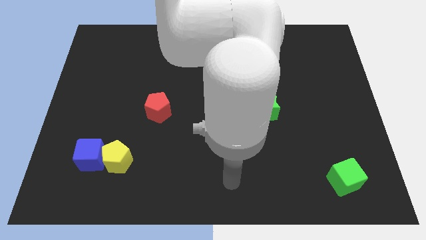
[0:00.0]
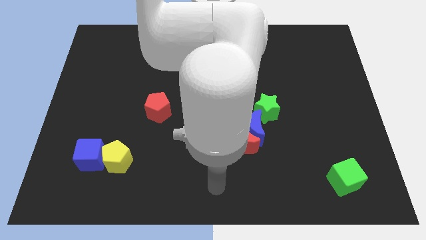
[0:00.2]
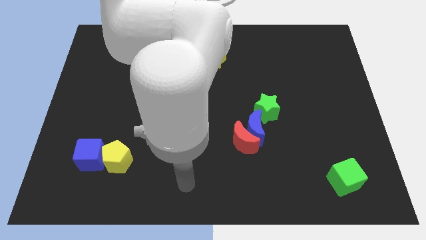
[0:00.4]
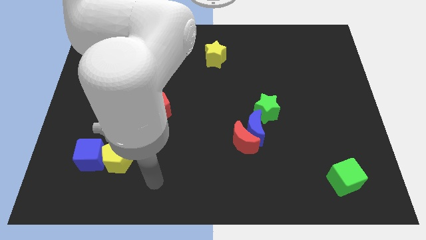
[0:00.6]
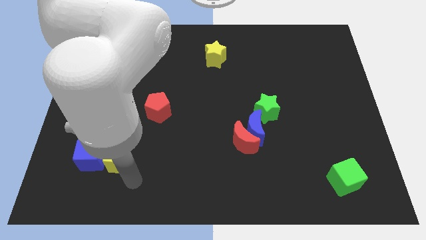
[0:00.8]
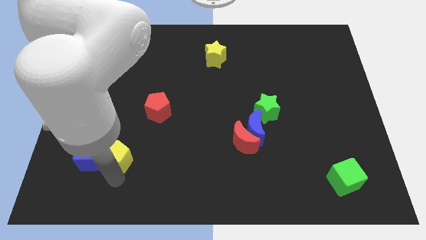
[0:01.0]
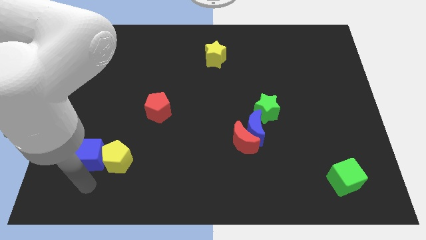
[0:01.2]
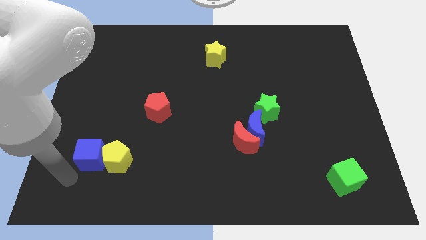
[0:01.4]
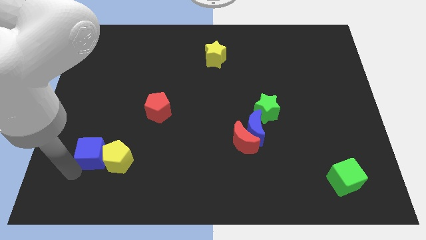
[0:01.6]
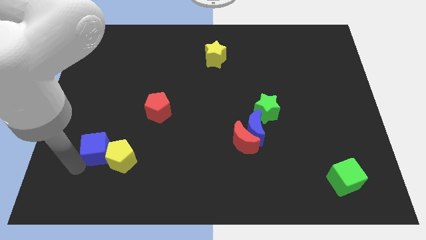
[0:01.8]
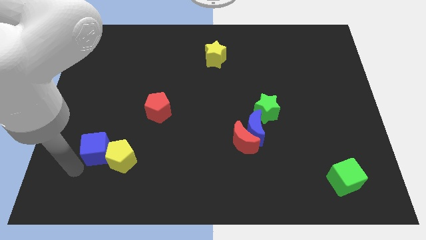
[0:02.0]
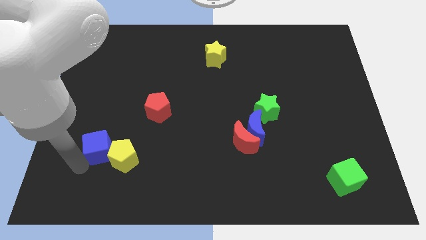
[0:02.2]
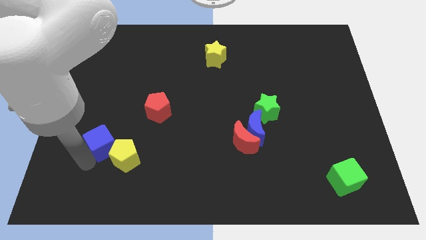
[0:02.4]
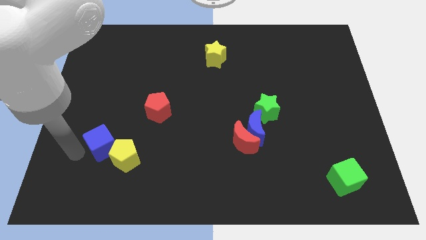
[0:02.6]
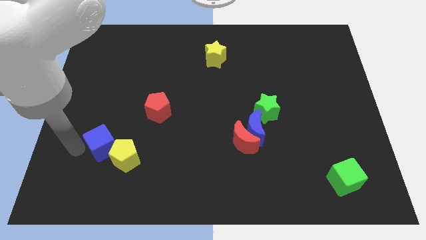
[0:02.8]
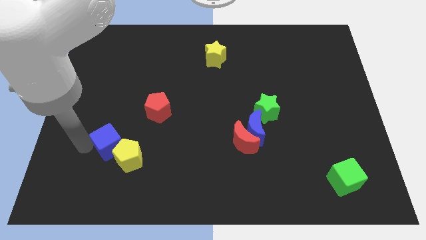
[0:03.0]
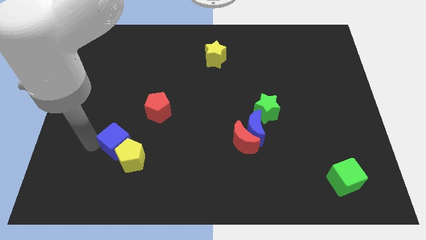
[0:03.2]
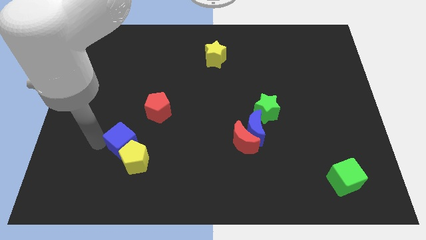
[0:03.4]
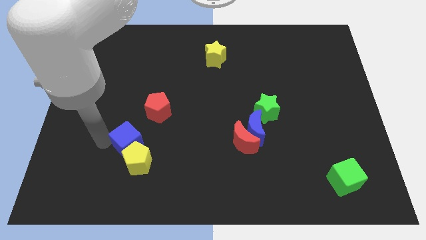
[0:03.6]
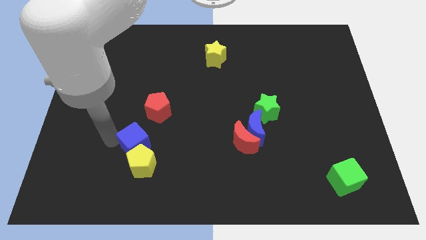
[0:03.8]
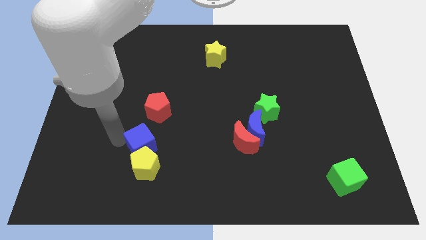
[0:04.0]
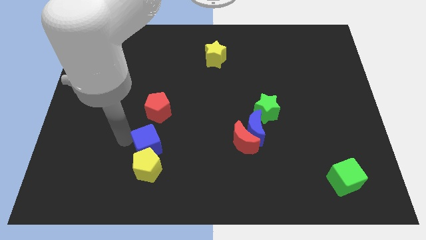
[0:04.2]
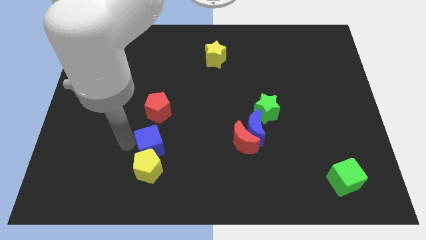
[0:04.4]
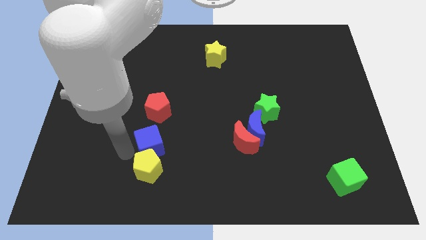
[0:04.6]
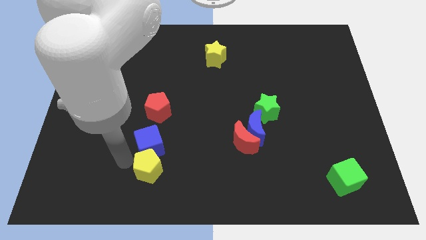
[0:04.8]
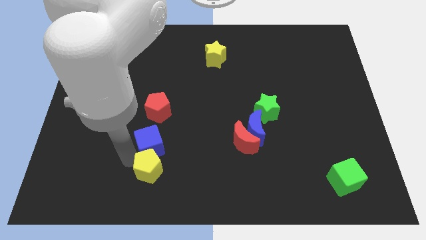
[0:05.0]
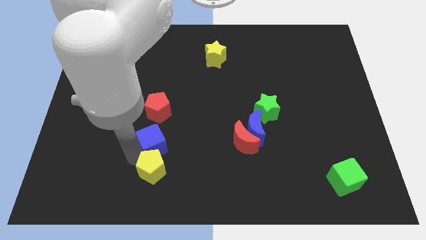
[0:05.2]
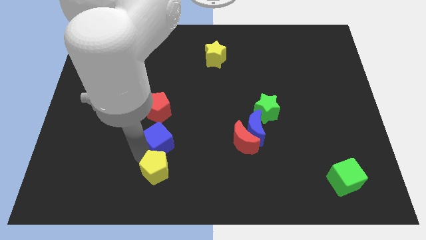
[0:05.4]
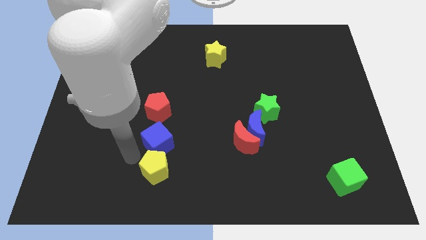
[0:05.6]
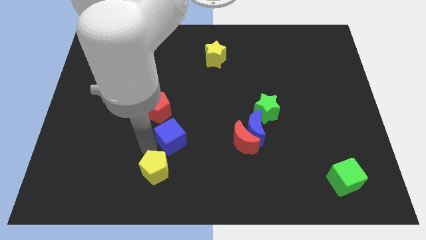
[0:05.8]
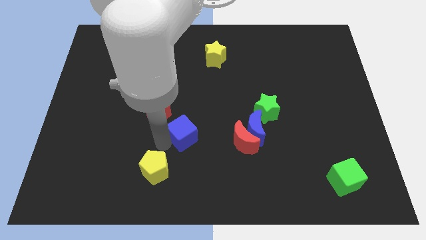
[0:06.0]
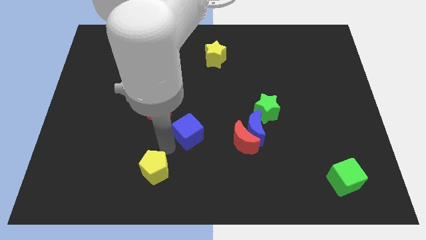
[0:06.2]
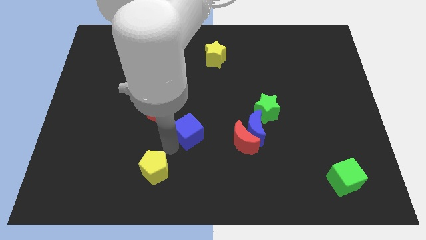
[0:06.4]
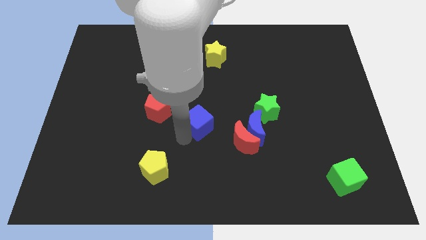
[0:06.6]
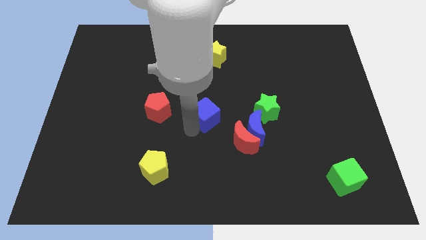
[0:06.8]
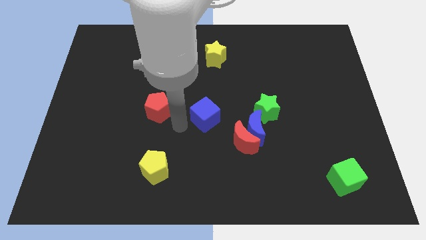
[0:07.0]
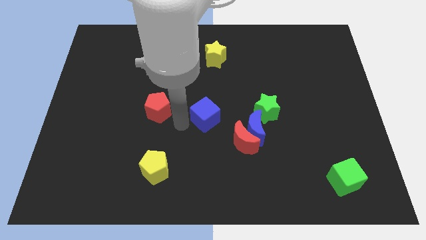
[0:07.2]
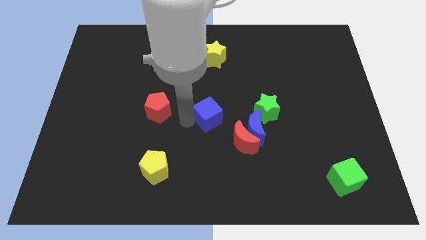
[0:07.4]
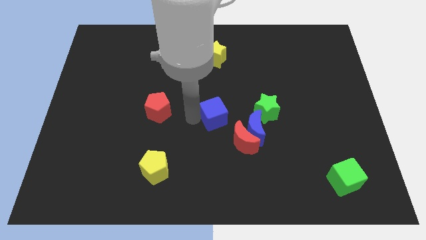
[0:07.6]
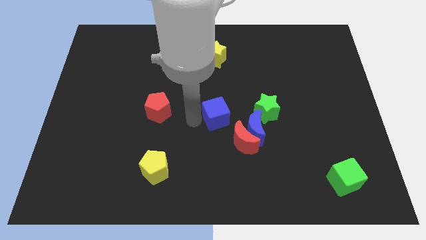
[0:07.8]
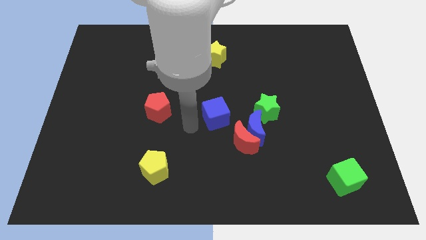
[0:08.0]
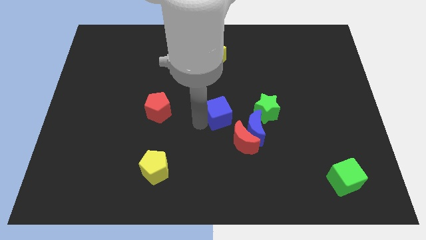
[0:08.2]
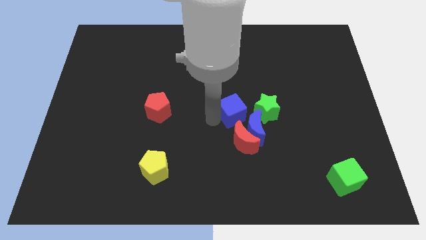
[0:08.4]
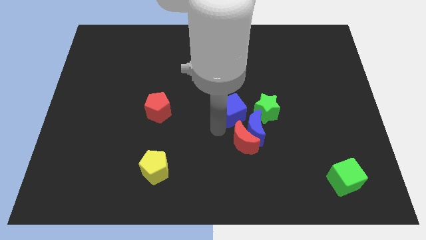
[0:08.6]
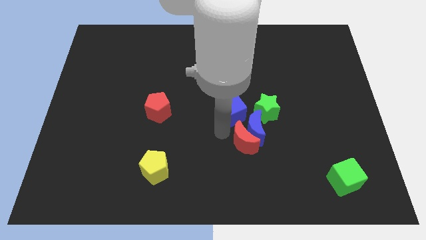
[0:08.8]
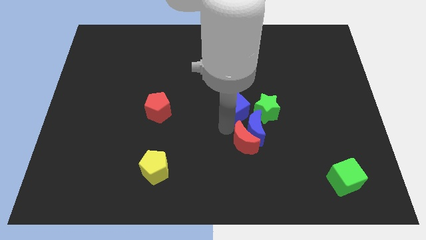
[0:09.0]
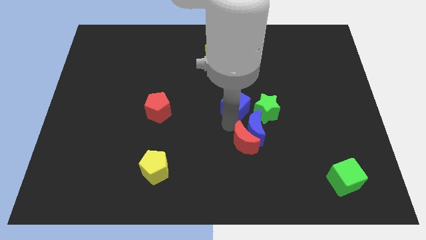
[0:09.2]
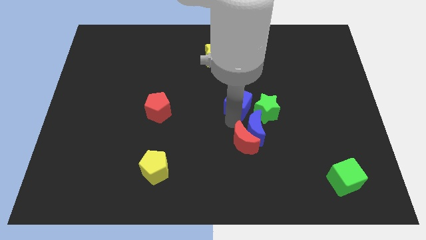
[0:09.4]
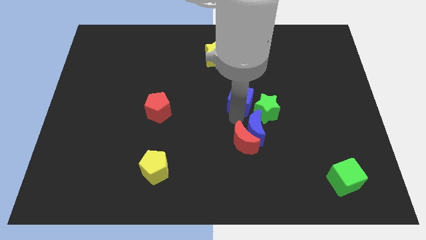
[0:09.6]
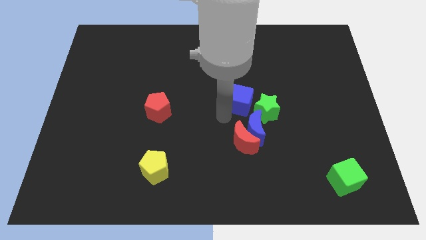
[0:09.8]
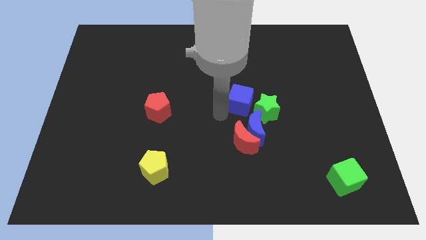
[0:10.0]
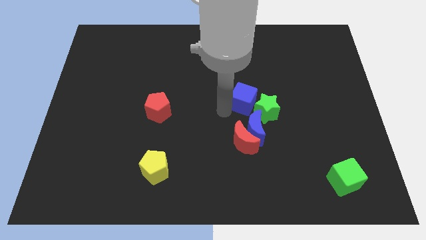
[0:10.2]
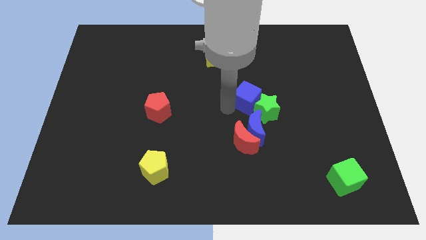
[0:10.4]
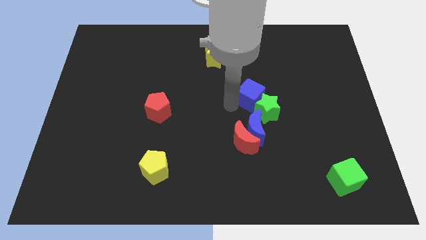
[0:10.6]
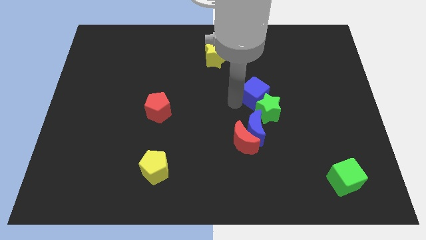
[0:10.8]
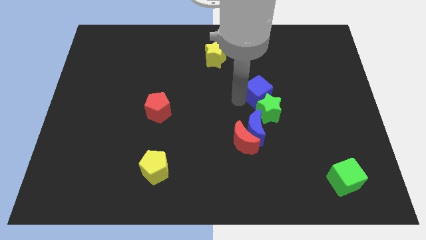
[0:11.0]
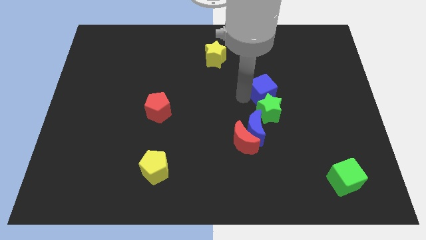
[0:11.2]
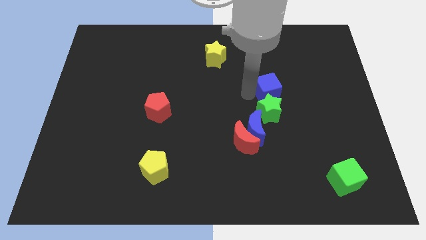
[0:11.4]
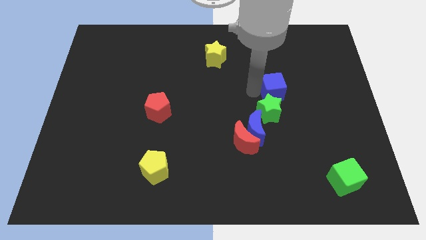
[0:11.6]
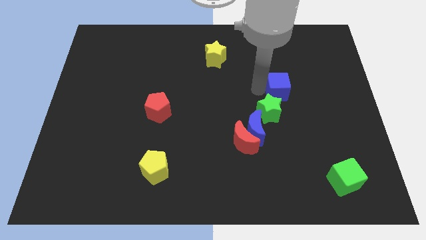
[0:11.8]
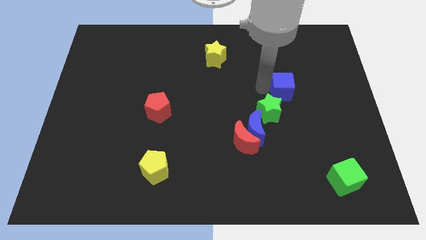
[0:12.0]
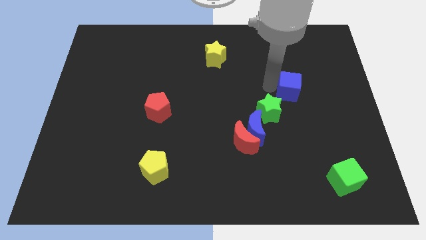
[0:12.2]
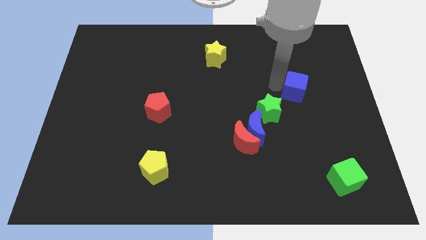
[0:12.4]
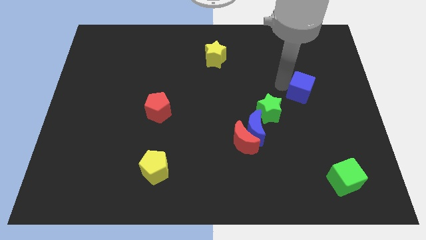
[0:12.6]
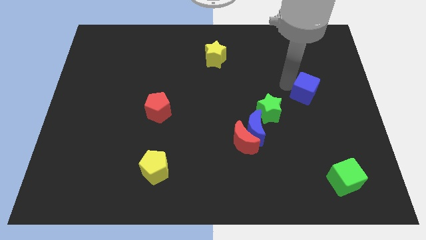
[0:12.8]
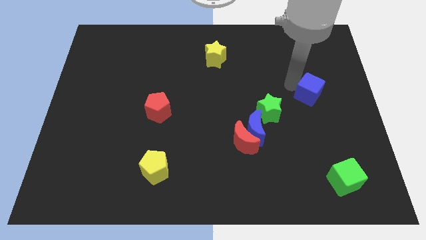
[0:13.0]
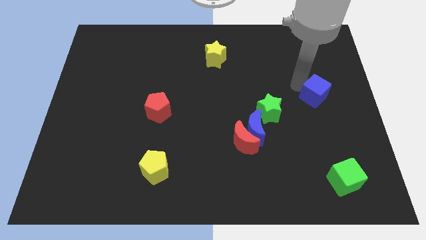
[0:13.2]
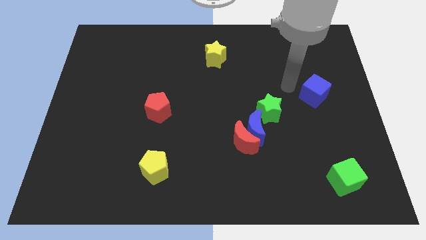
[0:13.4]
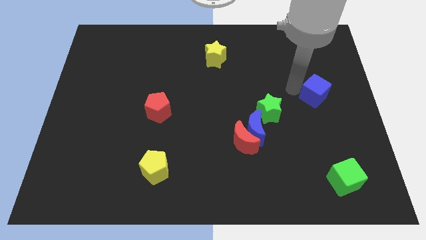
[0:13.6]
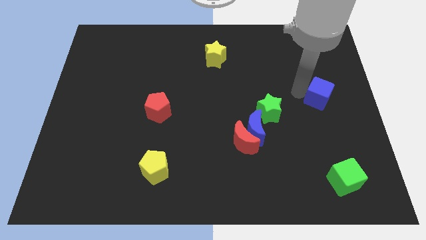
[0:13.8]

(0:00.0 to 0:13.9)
put the blue cube to the right side
